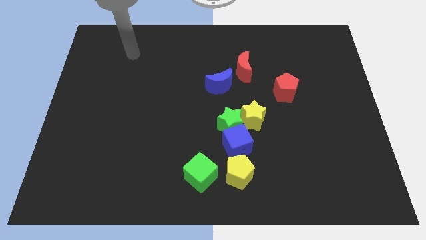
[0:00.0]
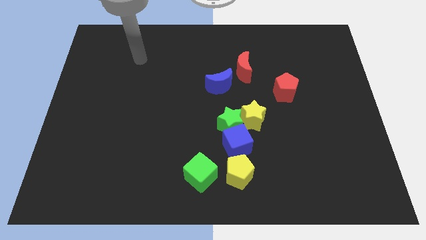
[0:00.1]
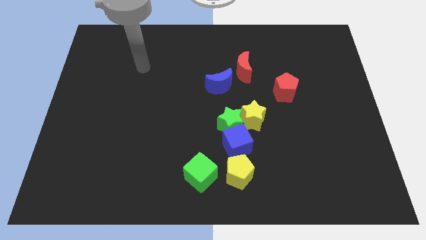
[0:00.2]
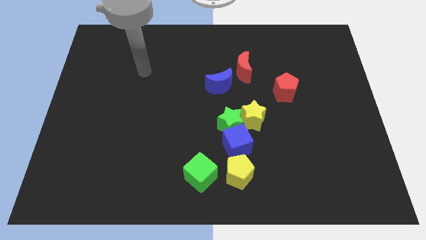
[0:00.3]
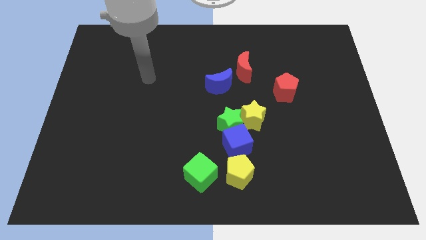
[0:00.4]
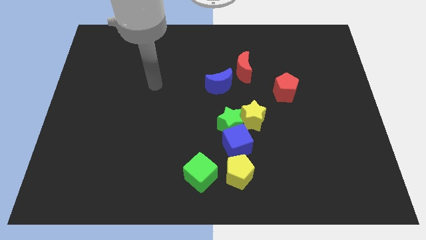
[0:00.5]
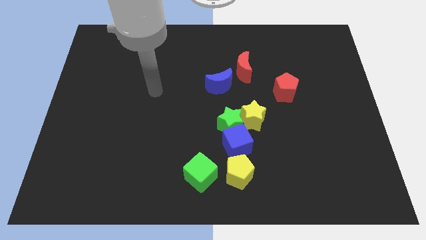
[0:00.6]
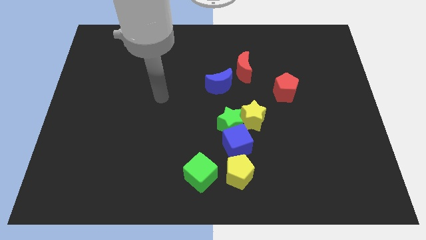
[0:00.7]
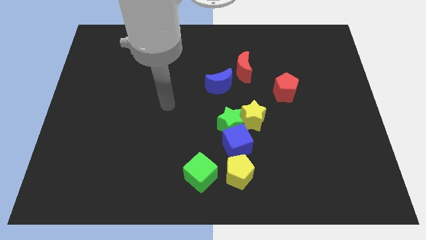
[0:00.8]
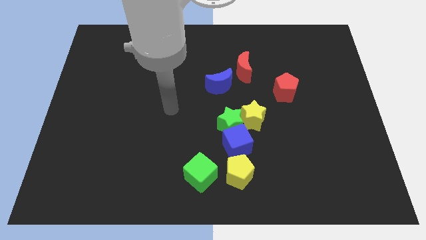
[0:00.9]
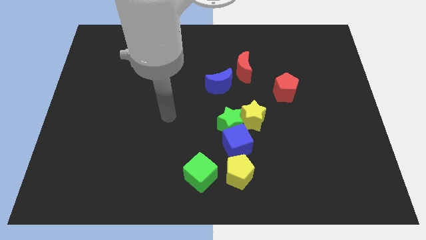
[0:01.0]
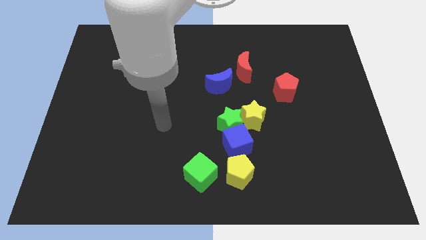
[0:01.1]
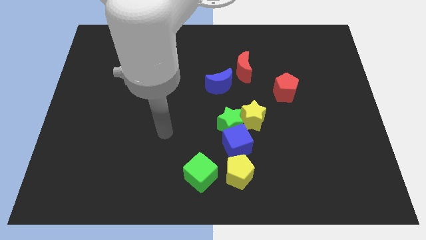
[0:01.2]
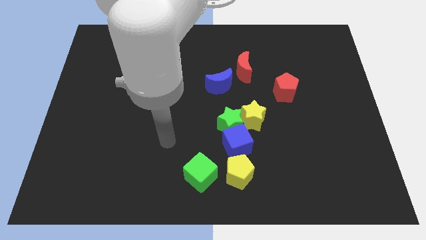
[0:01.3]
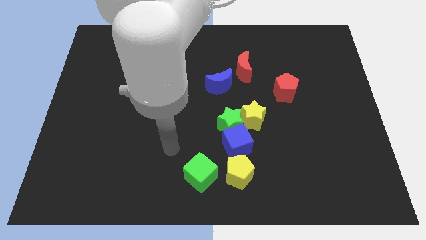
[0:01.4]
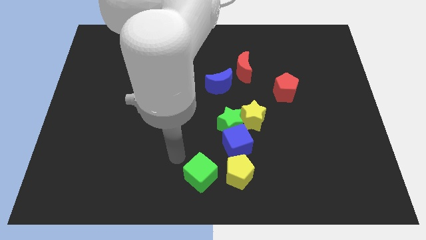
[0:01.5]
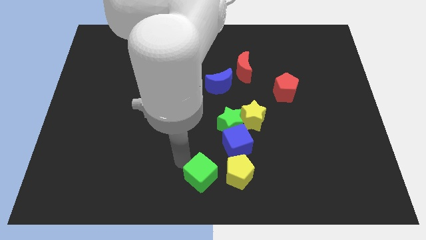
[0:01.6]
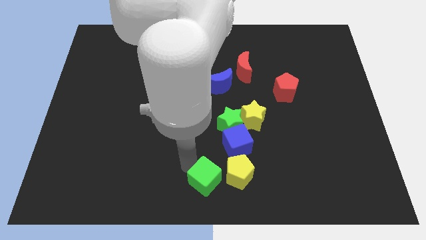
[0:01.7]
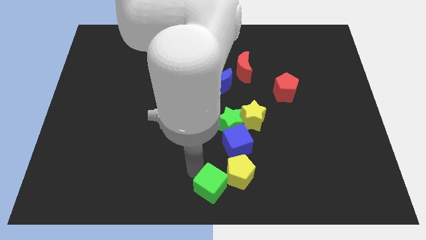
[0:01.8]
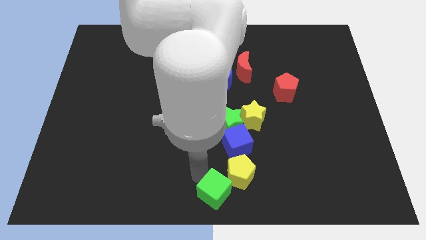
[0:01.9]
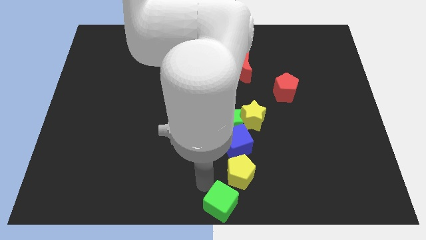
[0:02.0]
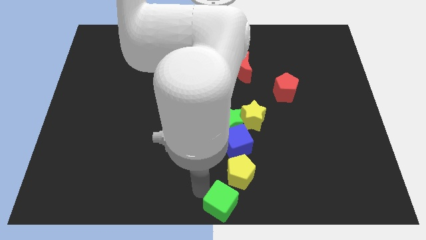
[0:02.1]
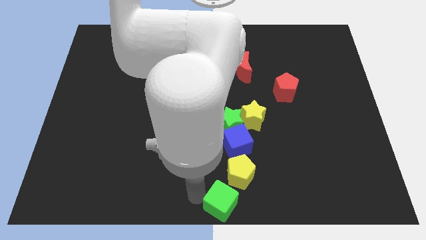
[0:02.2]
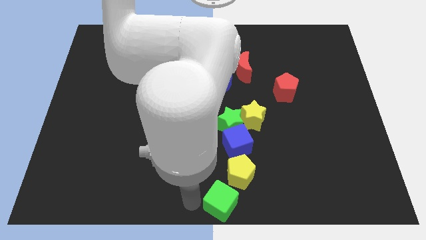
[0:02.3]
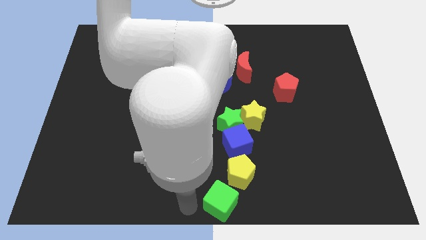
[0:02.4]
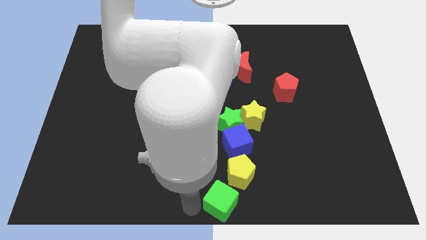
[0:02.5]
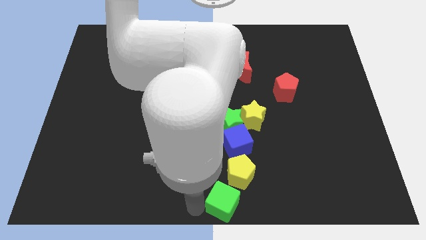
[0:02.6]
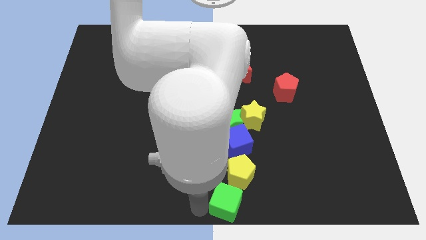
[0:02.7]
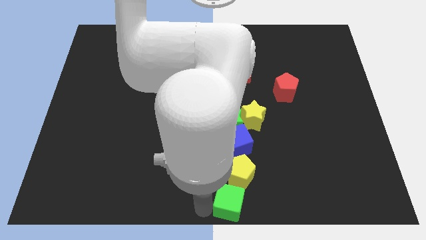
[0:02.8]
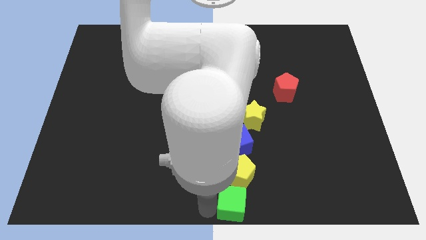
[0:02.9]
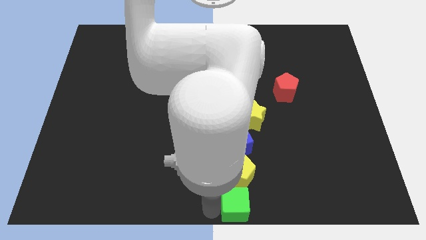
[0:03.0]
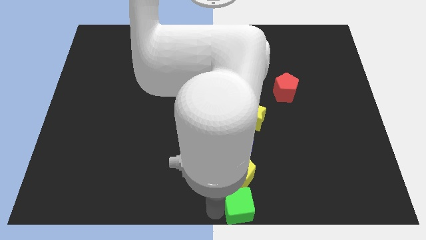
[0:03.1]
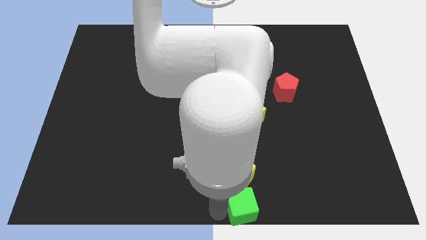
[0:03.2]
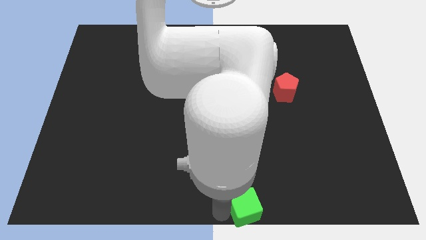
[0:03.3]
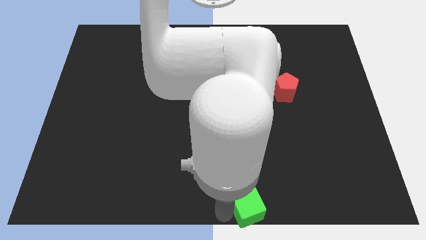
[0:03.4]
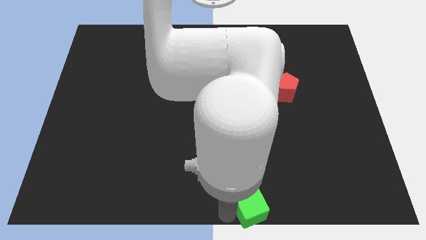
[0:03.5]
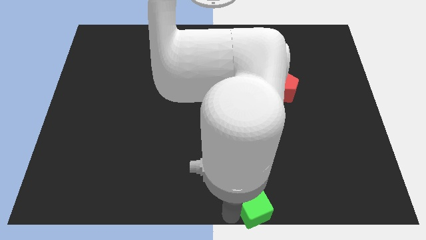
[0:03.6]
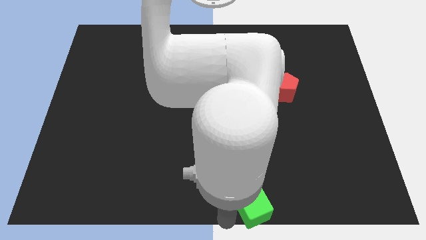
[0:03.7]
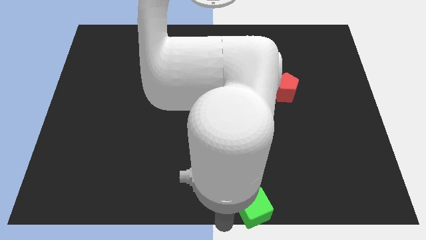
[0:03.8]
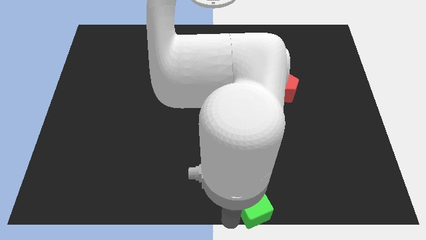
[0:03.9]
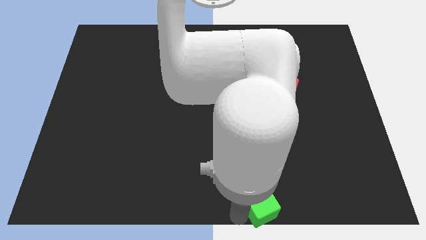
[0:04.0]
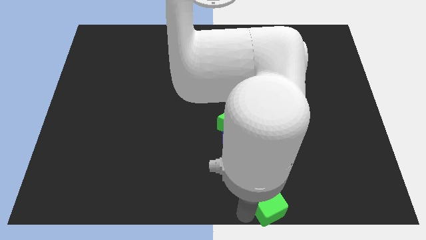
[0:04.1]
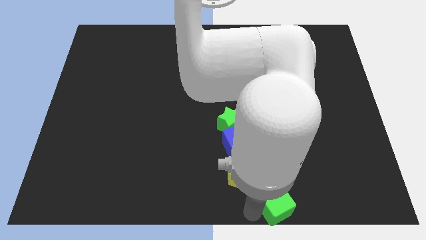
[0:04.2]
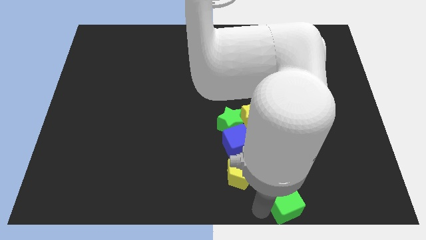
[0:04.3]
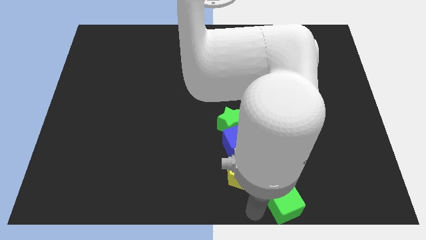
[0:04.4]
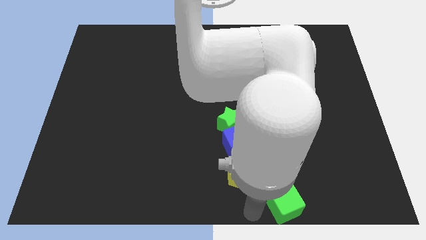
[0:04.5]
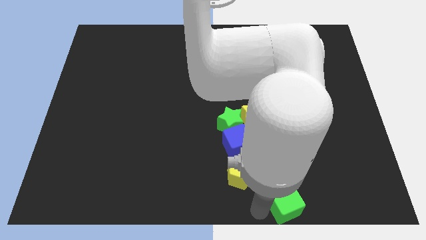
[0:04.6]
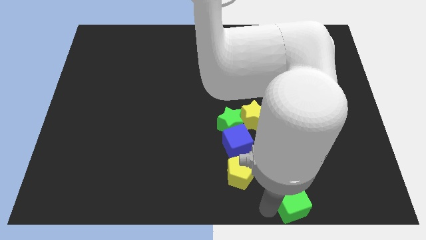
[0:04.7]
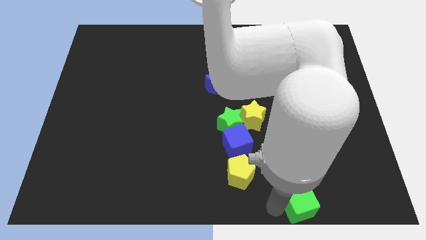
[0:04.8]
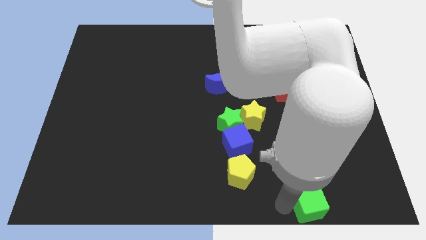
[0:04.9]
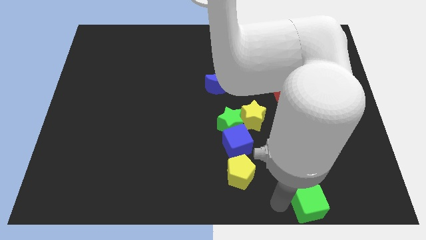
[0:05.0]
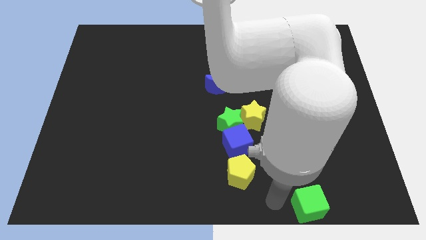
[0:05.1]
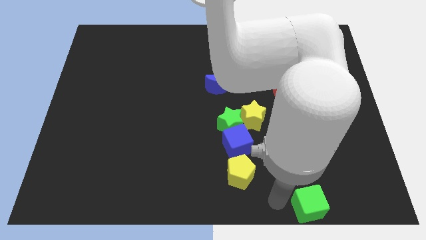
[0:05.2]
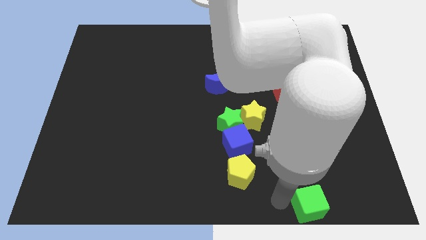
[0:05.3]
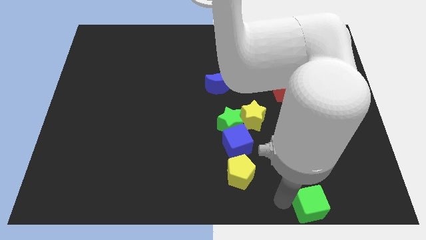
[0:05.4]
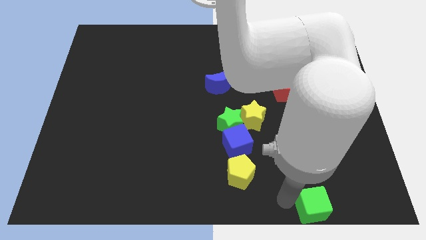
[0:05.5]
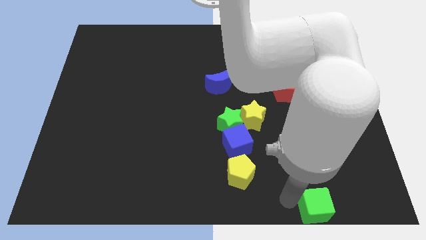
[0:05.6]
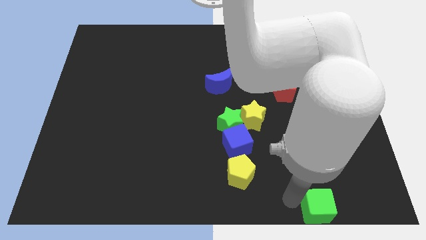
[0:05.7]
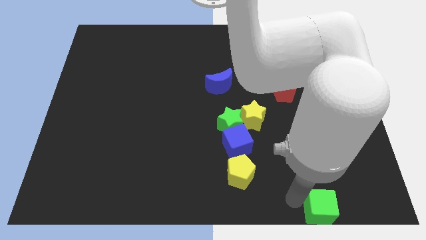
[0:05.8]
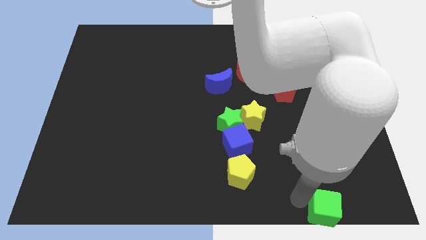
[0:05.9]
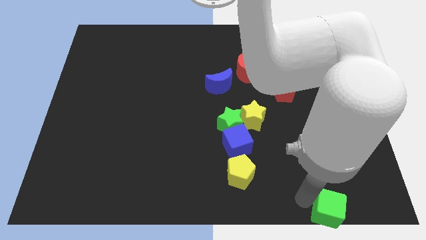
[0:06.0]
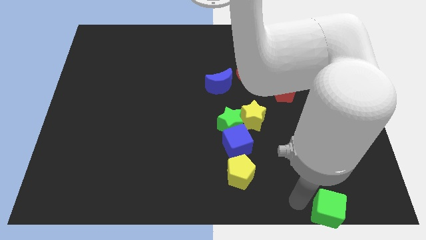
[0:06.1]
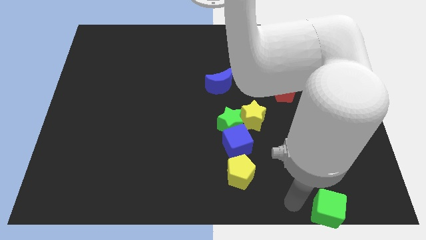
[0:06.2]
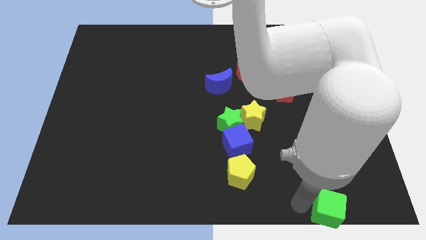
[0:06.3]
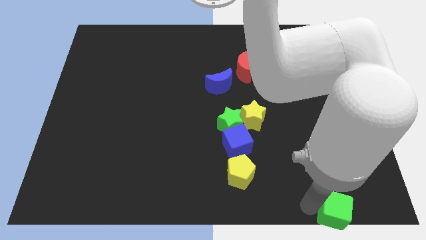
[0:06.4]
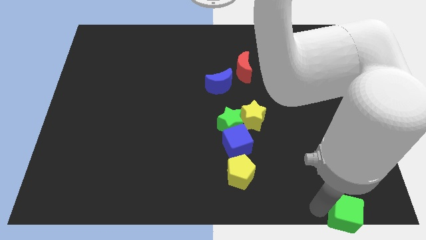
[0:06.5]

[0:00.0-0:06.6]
put the green cube to the bottom right

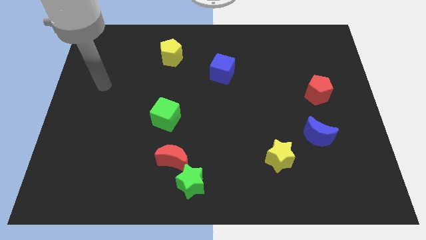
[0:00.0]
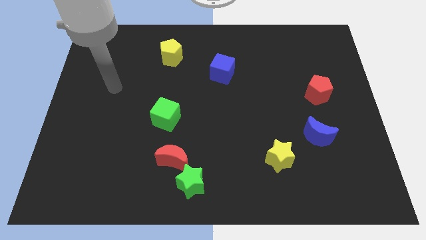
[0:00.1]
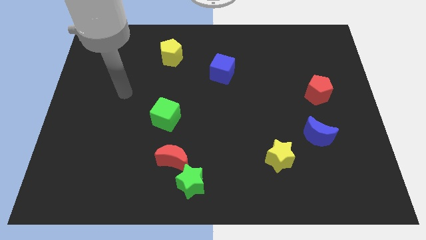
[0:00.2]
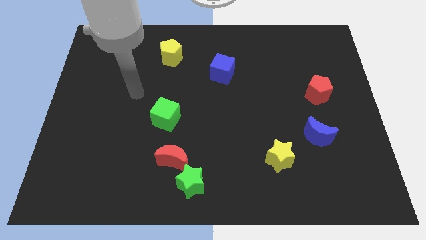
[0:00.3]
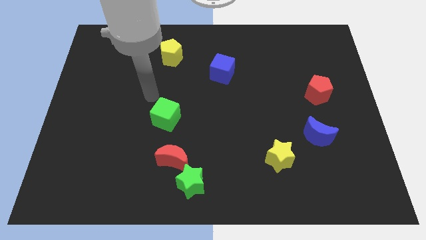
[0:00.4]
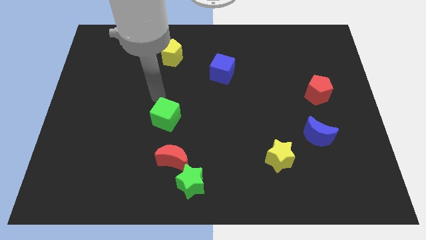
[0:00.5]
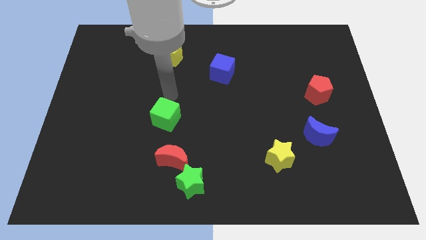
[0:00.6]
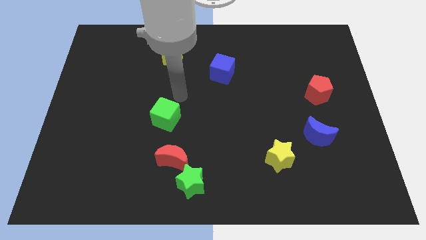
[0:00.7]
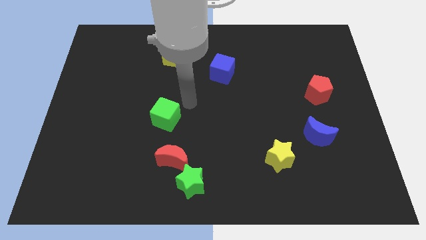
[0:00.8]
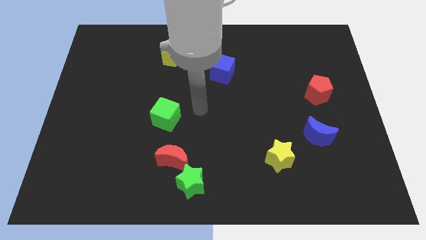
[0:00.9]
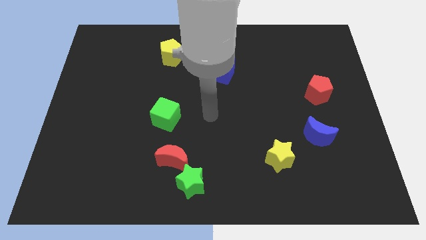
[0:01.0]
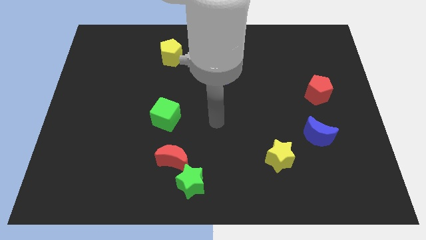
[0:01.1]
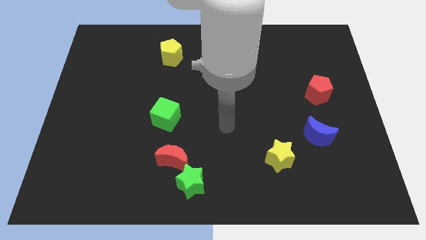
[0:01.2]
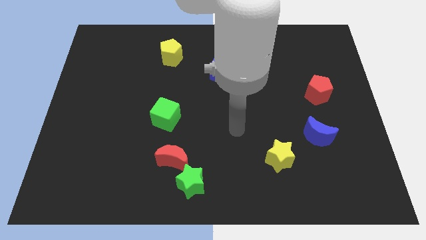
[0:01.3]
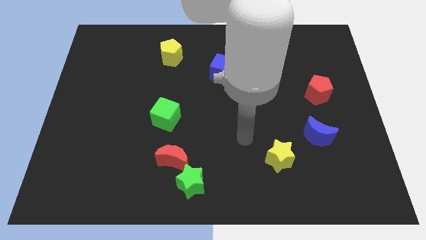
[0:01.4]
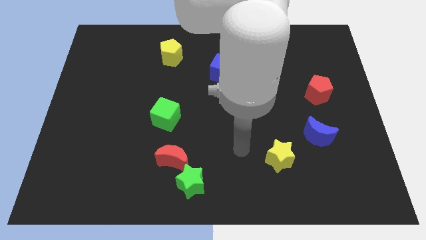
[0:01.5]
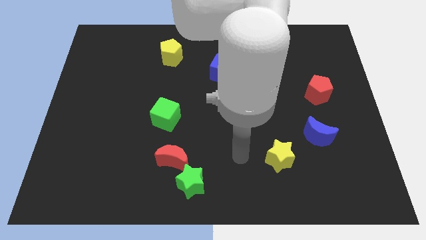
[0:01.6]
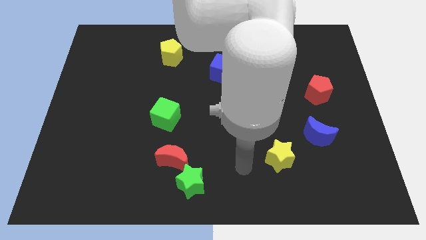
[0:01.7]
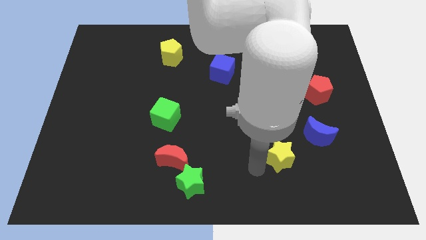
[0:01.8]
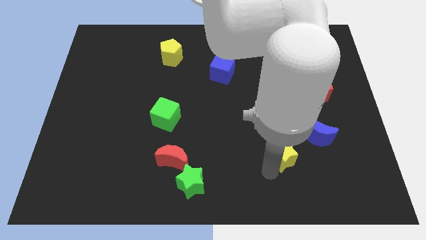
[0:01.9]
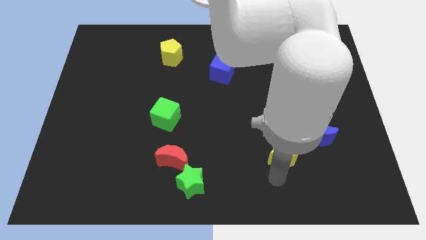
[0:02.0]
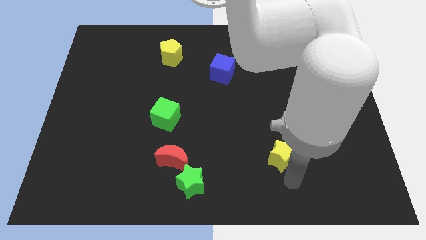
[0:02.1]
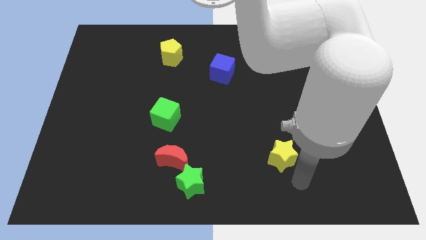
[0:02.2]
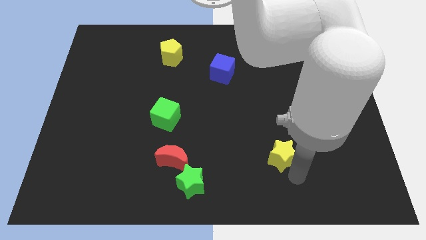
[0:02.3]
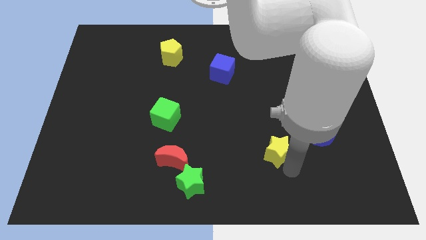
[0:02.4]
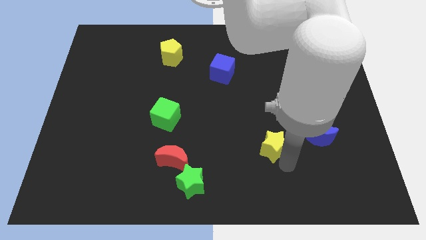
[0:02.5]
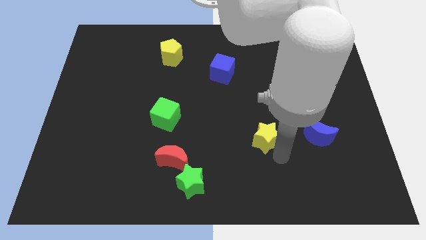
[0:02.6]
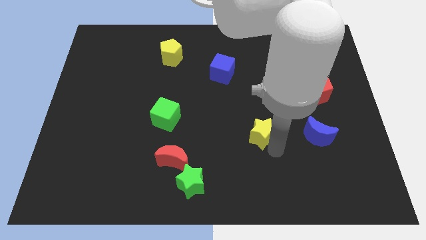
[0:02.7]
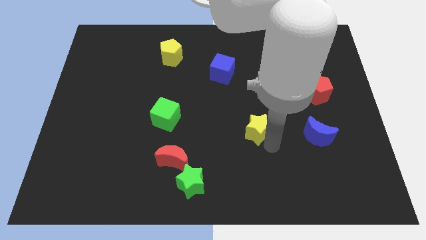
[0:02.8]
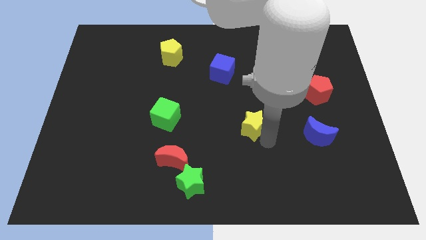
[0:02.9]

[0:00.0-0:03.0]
push the yellow star to the center
